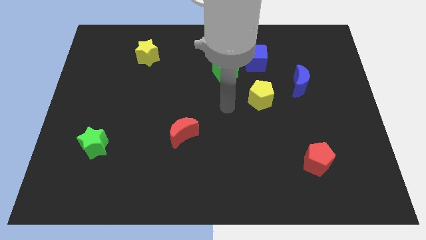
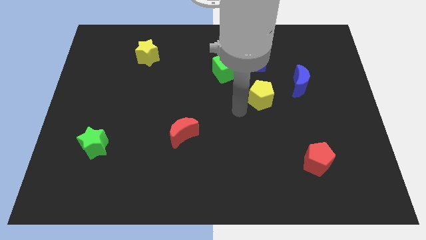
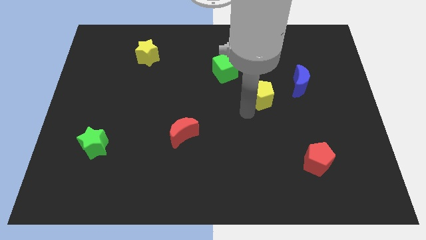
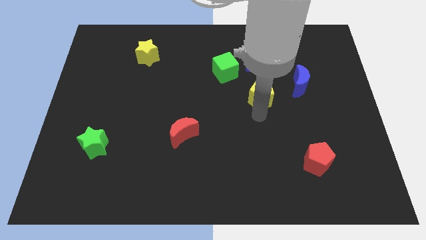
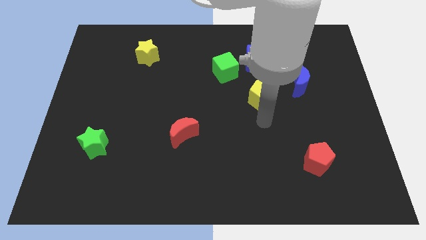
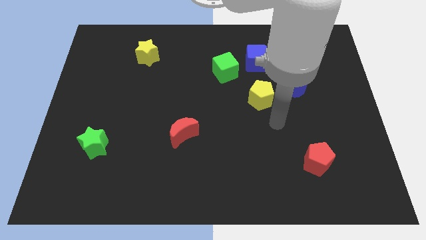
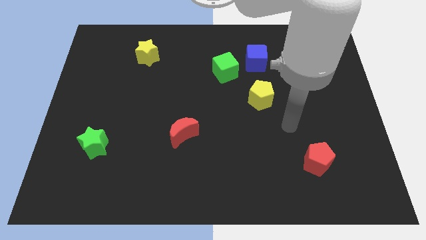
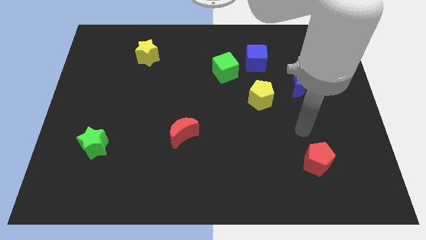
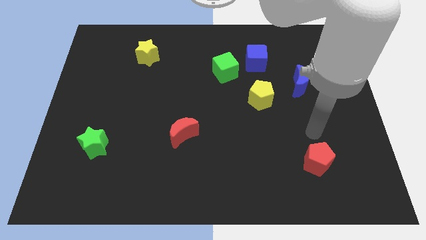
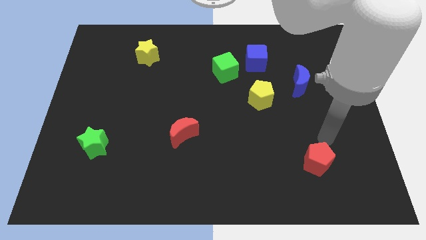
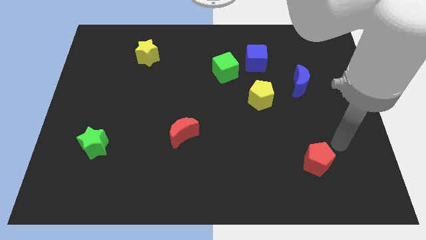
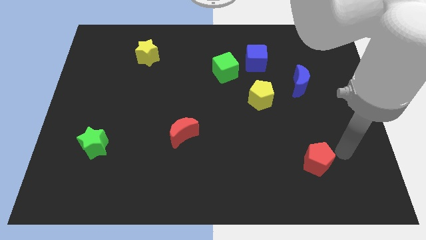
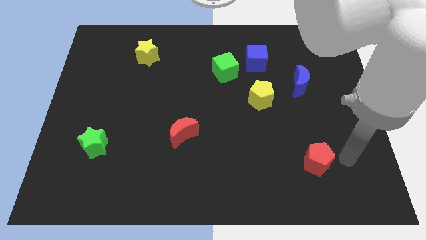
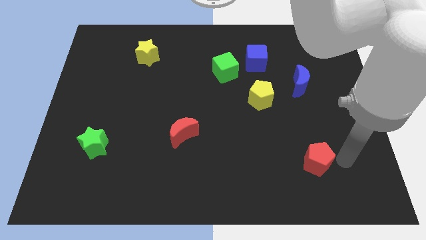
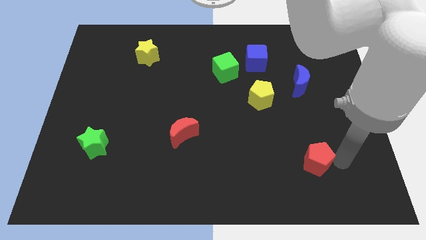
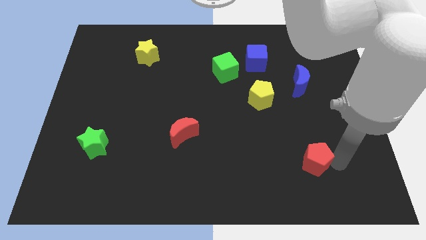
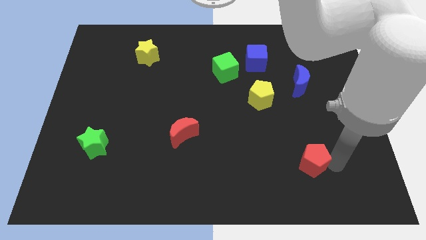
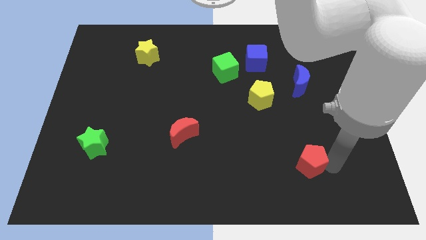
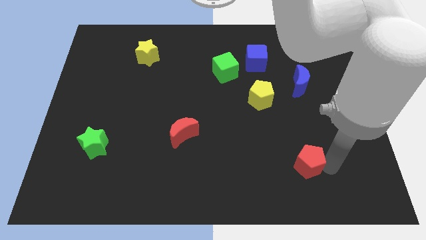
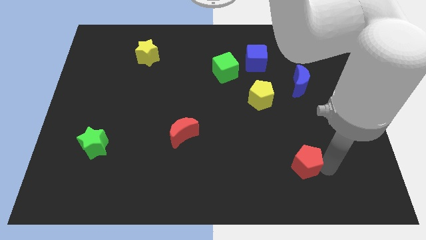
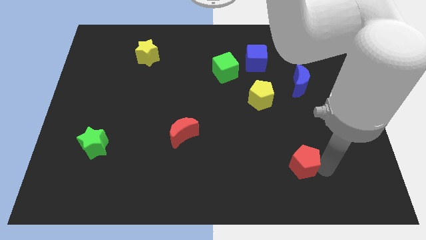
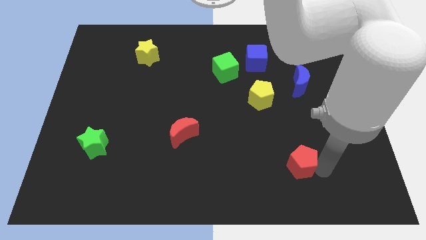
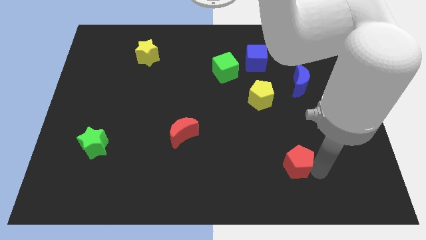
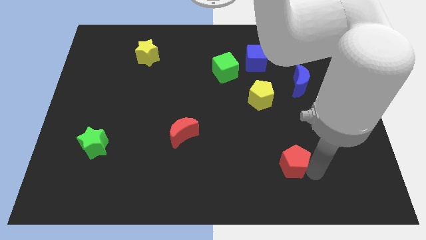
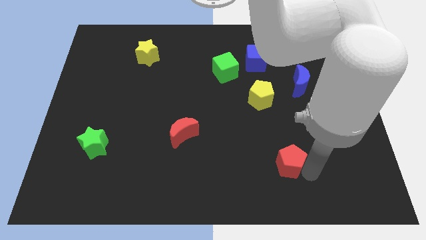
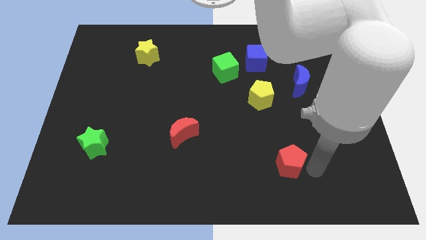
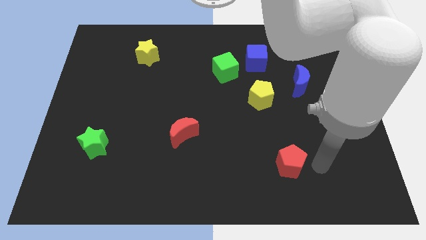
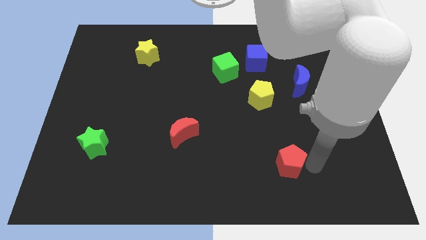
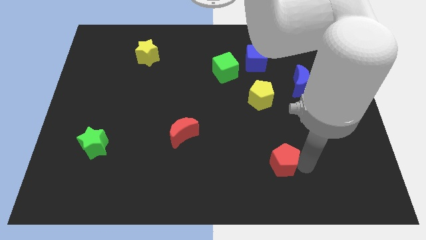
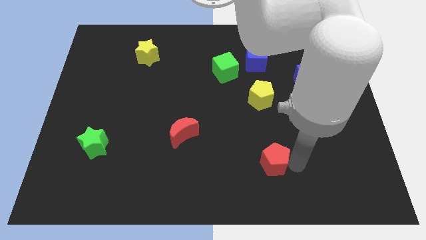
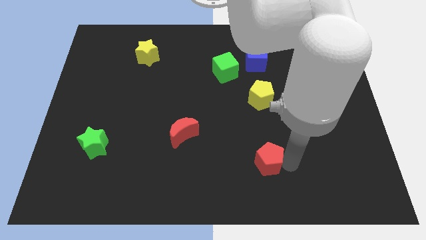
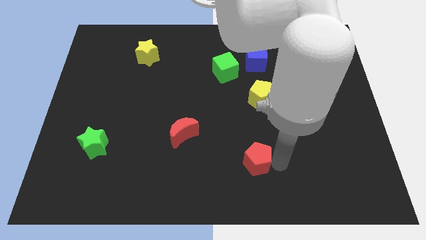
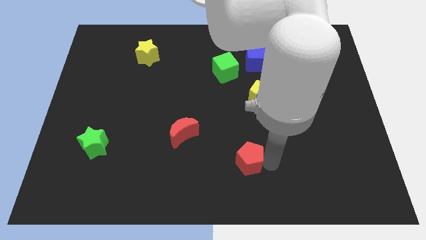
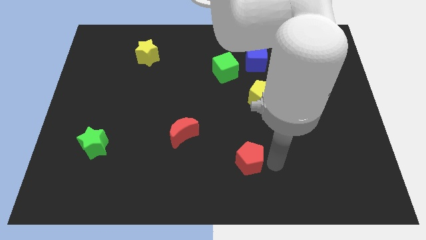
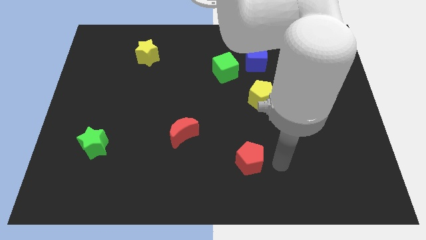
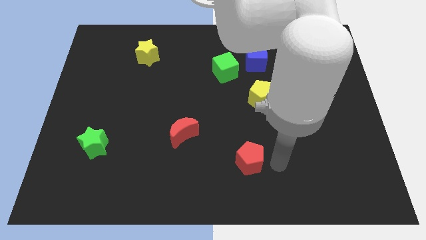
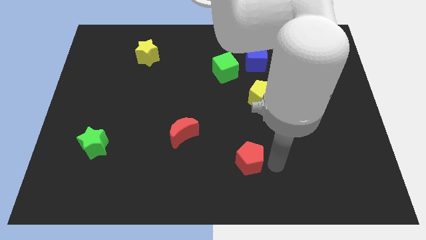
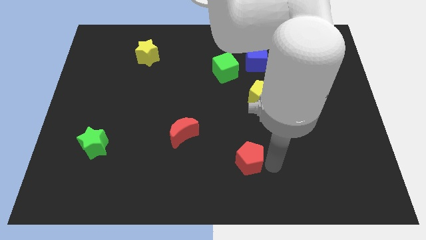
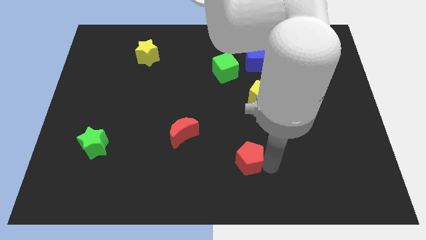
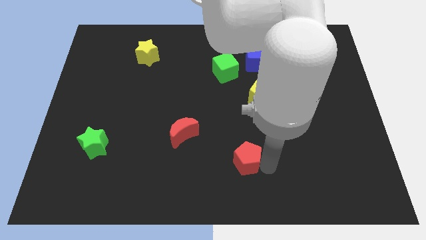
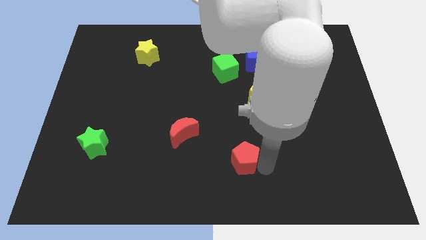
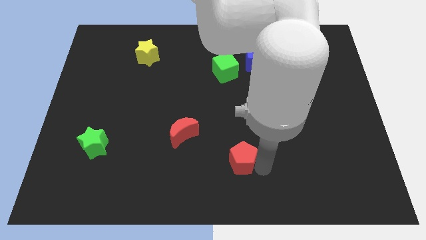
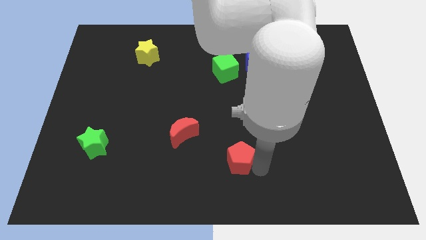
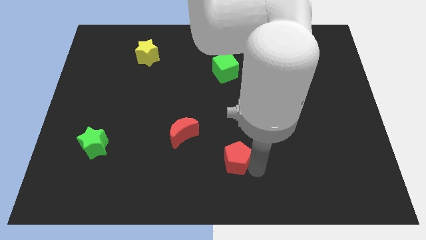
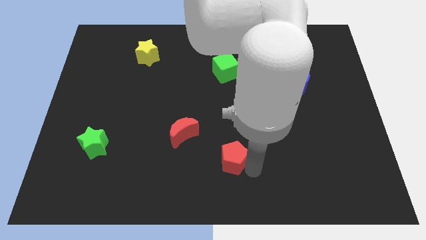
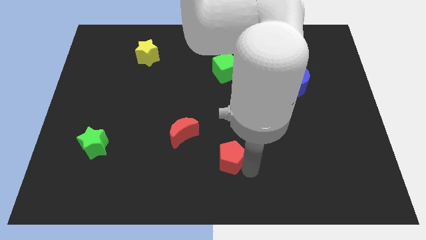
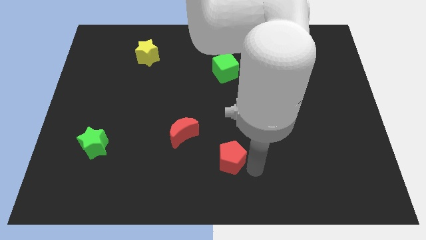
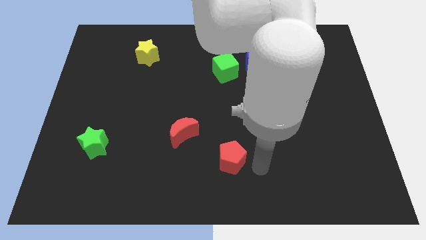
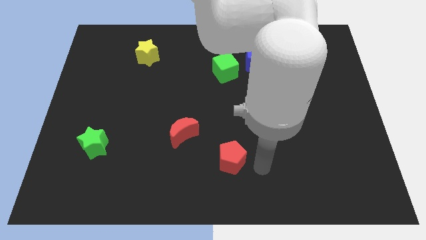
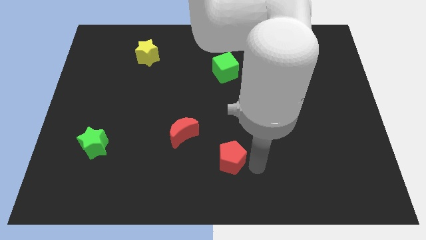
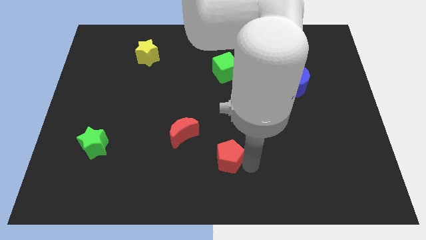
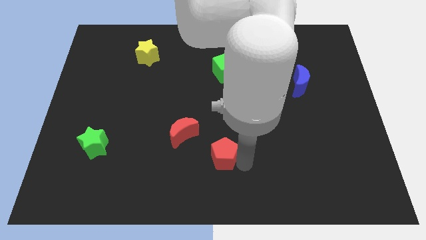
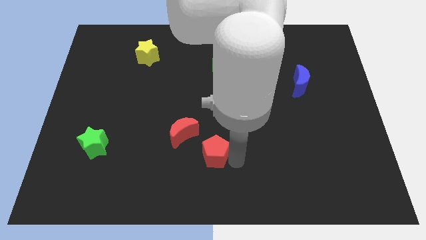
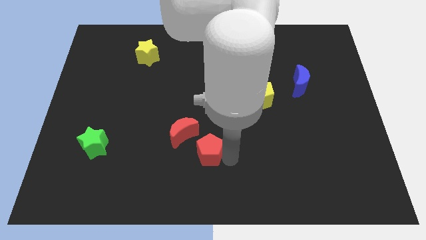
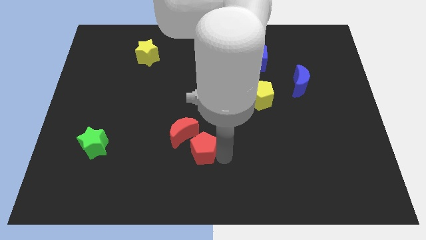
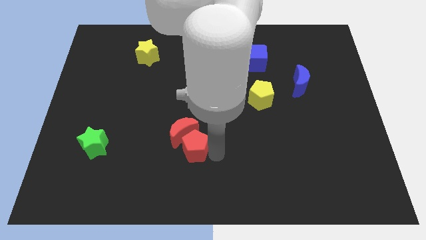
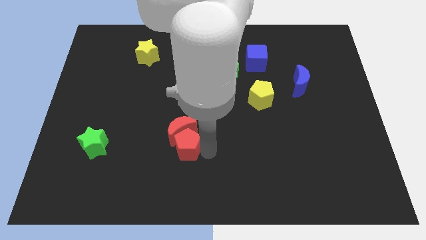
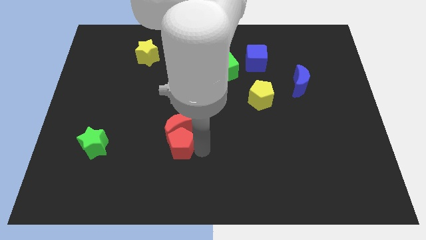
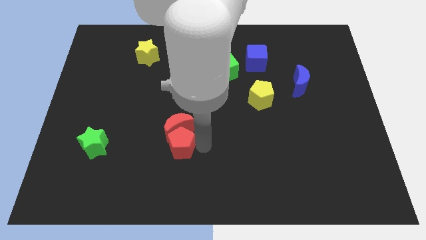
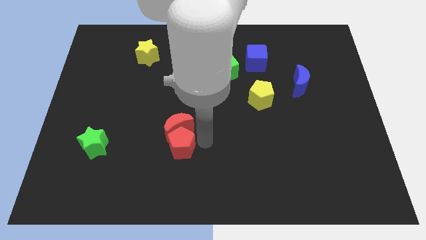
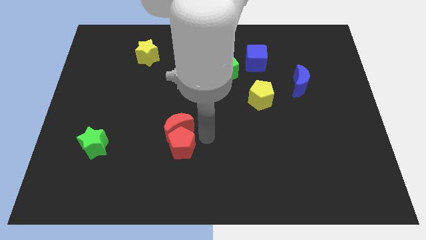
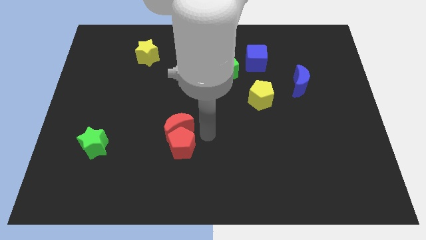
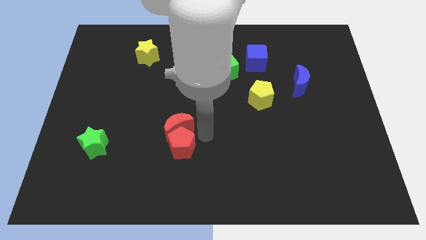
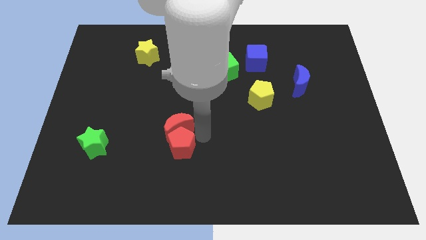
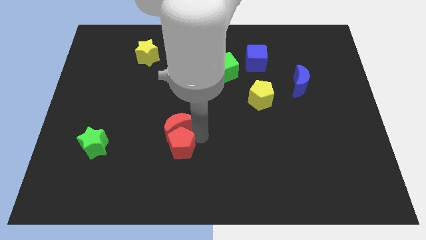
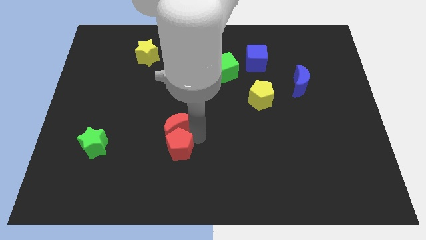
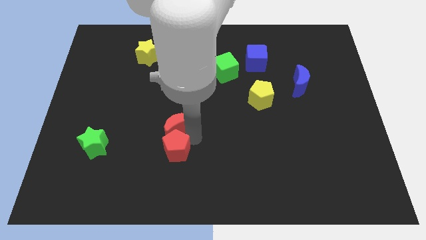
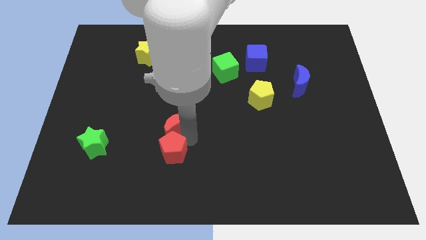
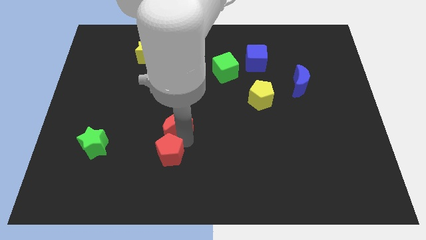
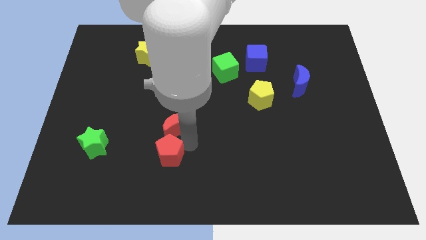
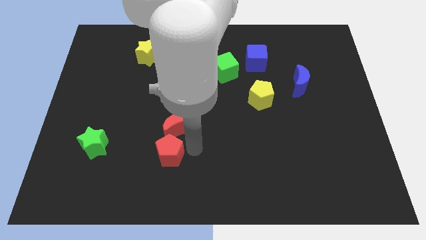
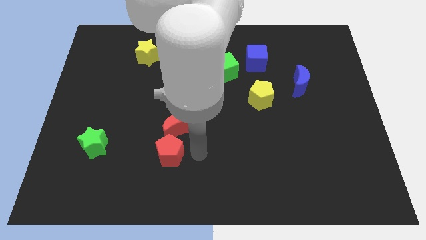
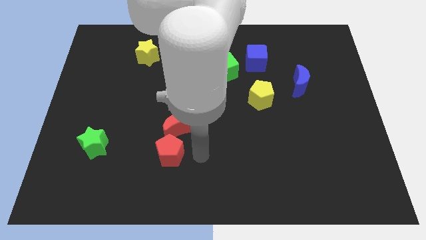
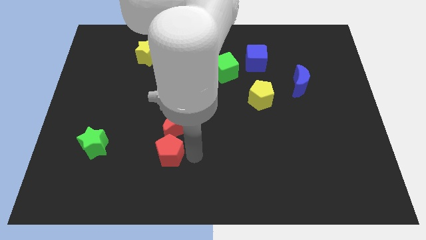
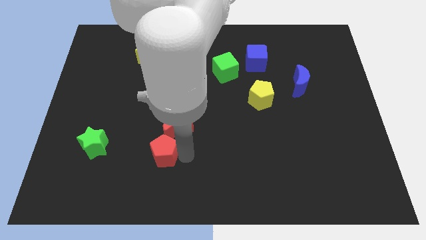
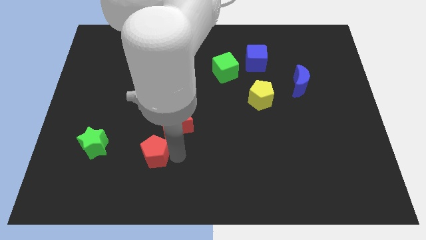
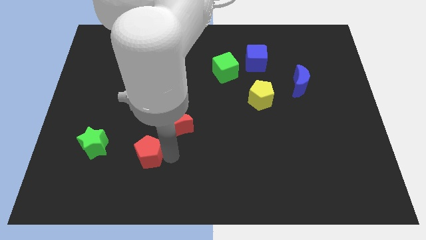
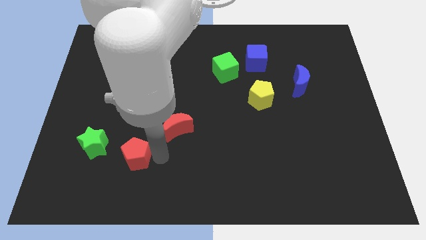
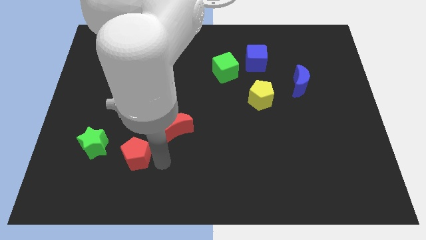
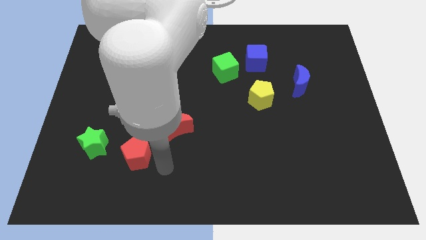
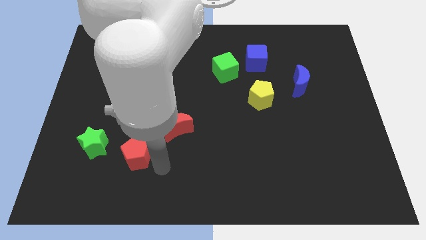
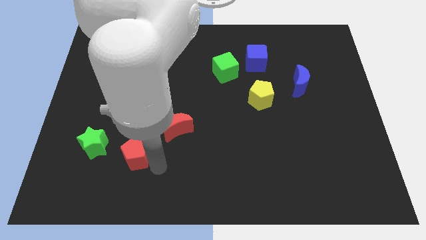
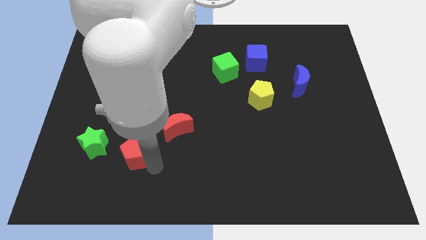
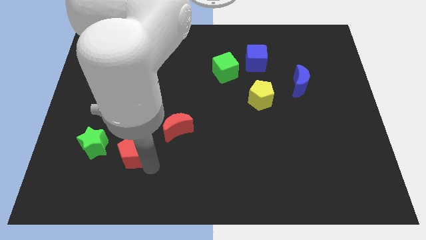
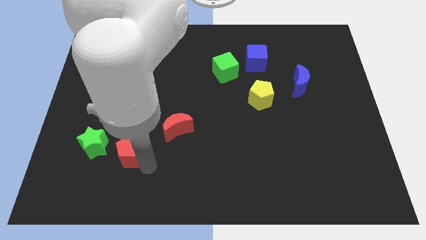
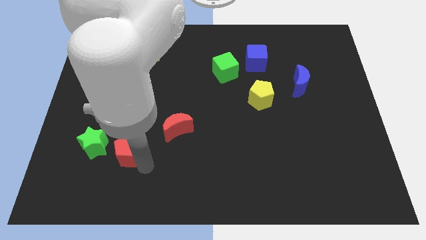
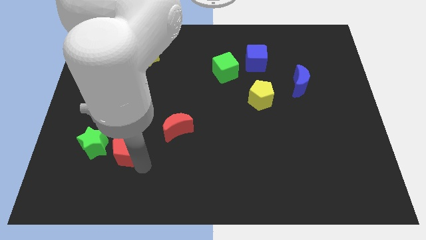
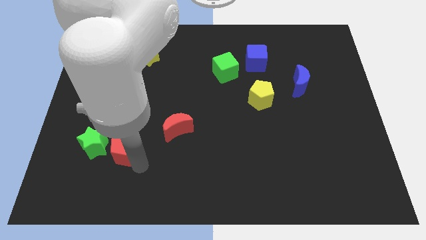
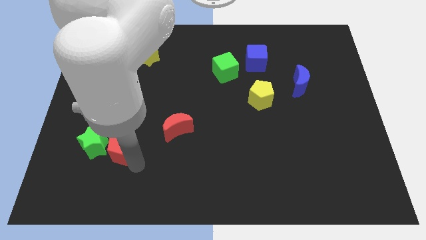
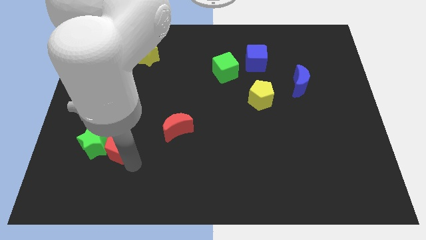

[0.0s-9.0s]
put the red pentagon next to the green star
